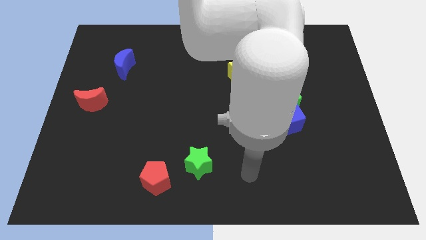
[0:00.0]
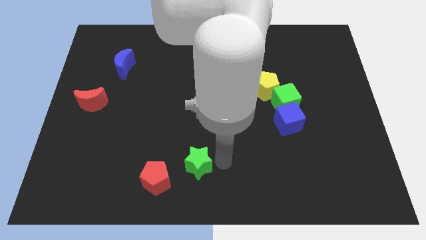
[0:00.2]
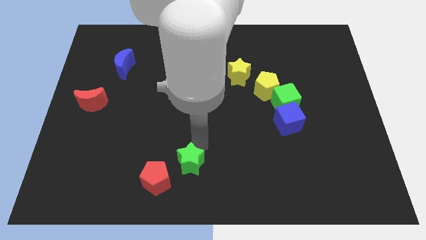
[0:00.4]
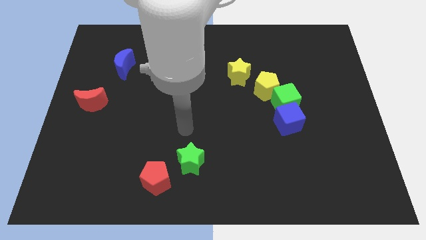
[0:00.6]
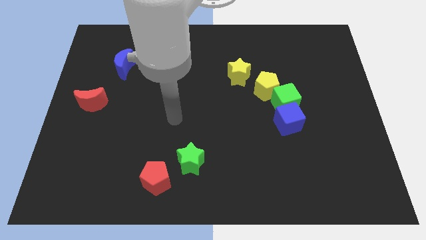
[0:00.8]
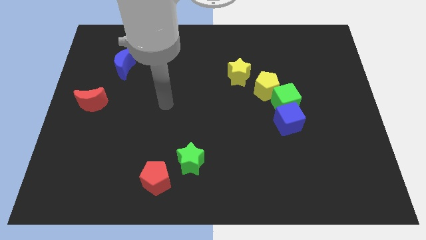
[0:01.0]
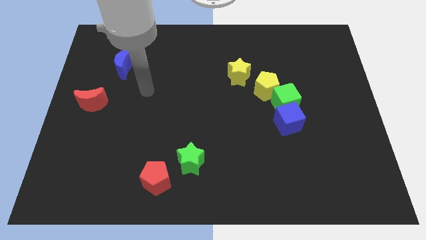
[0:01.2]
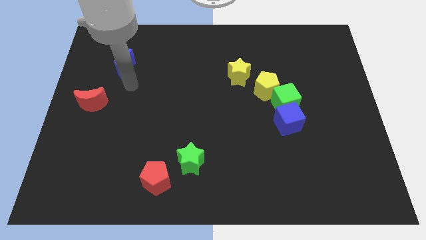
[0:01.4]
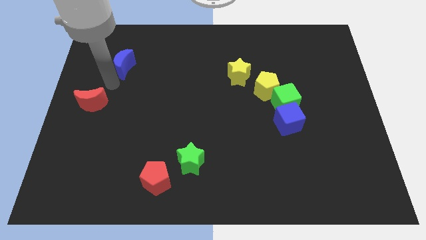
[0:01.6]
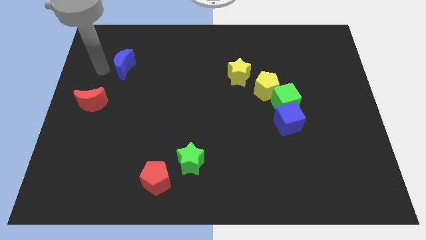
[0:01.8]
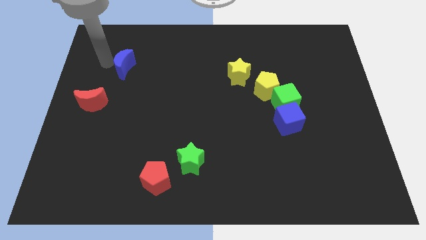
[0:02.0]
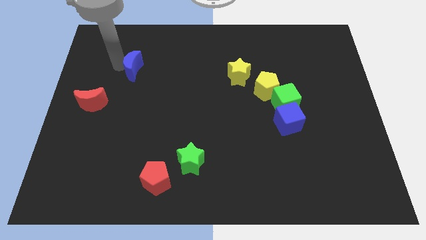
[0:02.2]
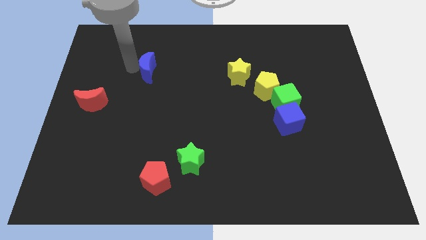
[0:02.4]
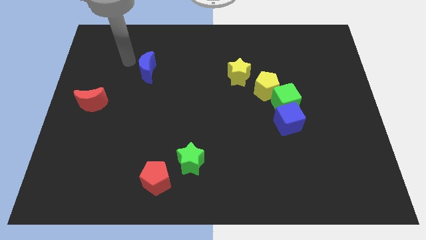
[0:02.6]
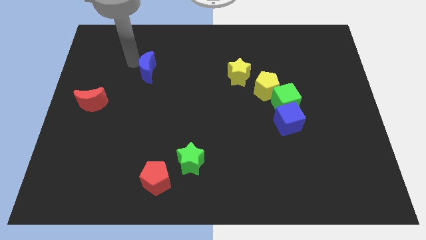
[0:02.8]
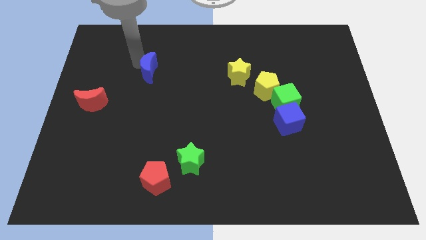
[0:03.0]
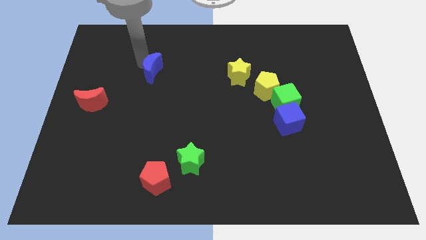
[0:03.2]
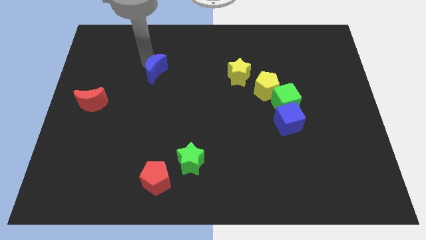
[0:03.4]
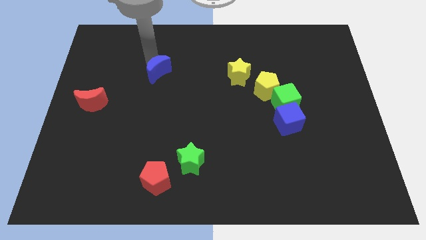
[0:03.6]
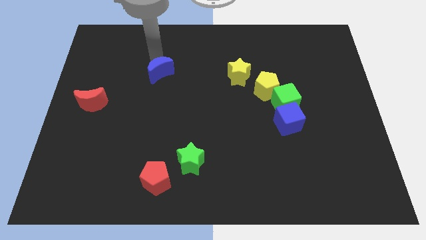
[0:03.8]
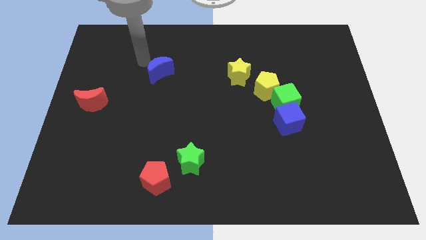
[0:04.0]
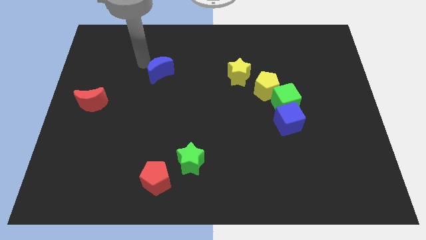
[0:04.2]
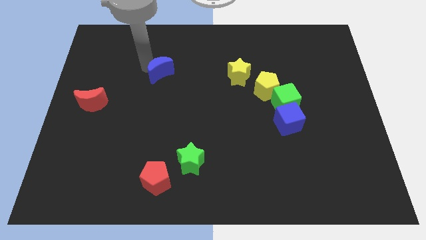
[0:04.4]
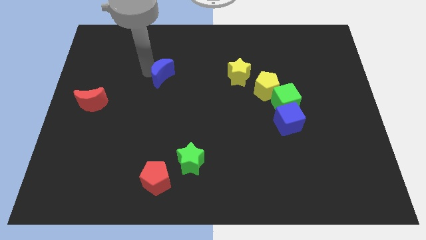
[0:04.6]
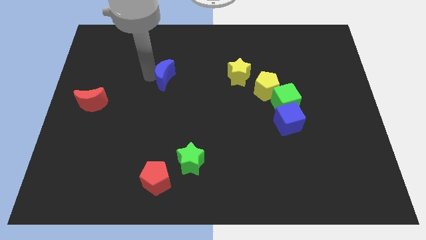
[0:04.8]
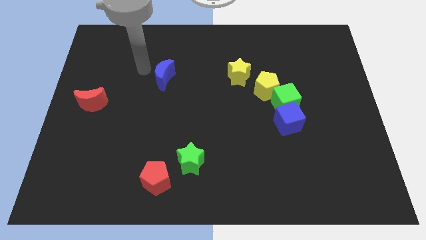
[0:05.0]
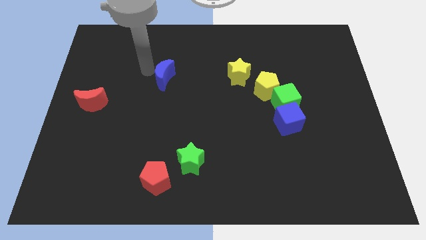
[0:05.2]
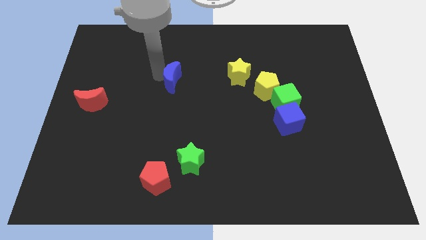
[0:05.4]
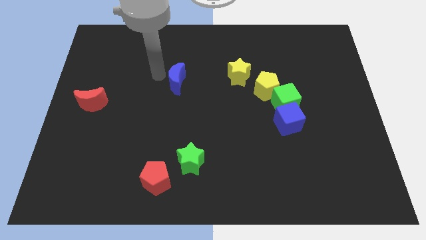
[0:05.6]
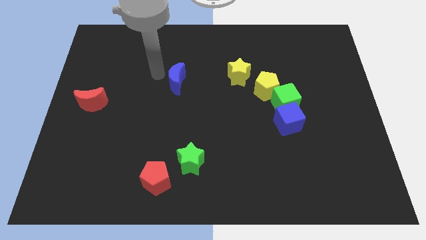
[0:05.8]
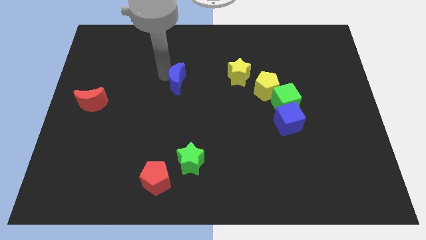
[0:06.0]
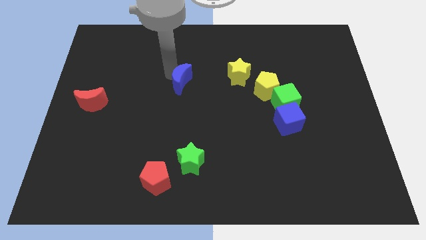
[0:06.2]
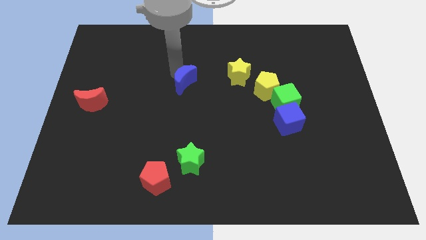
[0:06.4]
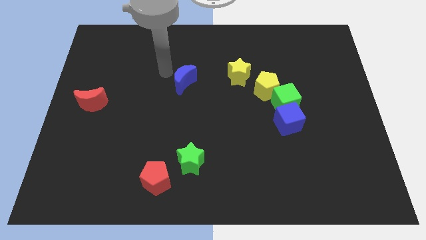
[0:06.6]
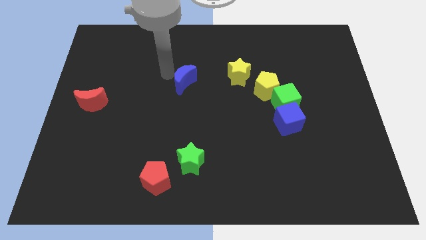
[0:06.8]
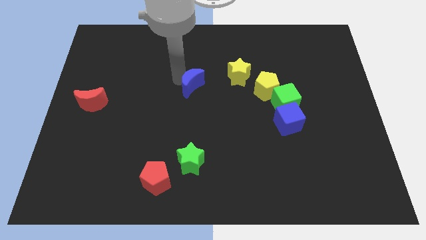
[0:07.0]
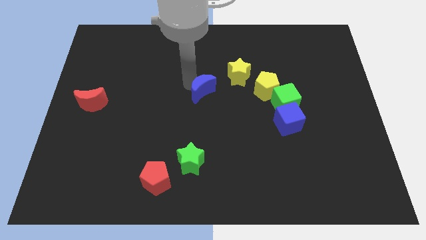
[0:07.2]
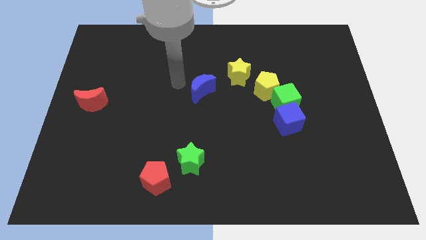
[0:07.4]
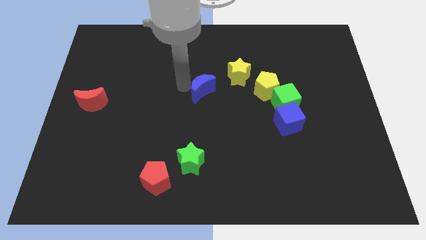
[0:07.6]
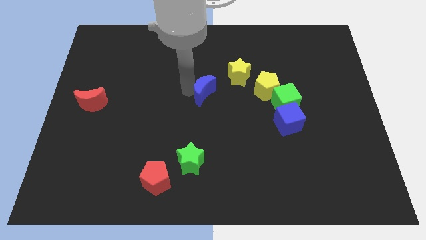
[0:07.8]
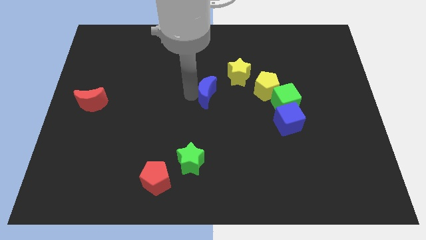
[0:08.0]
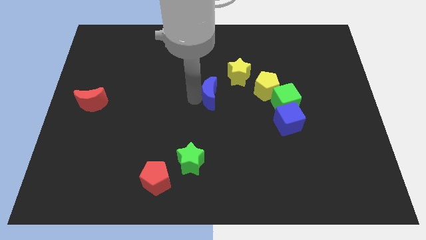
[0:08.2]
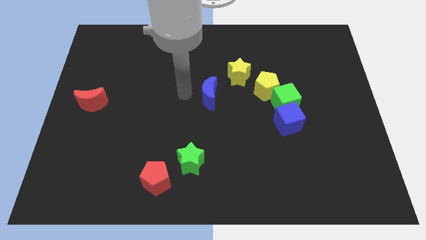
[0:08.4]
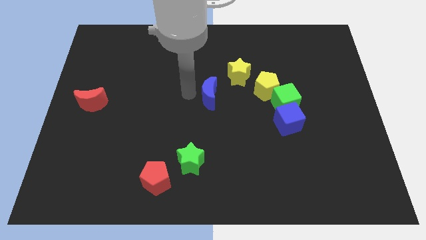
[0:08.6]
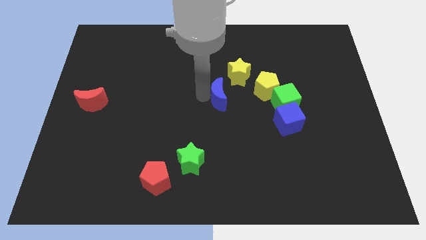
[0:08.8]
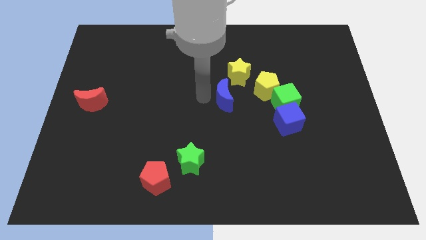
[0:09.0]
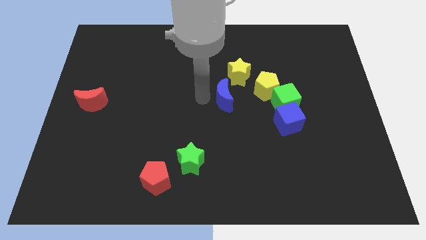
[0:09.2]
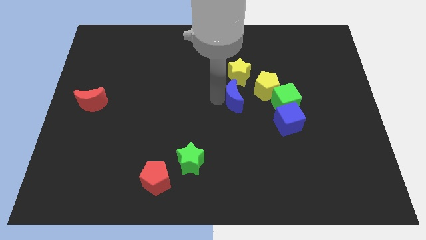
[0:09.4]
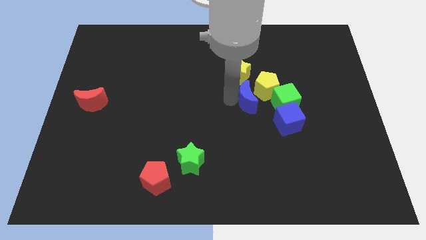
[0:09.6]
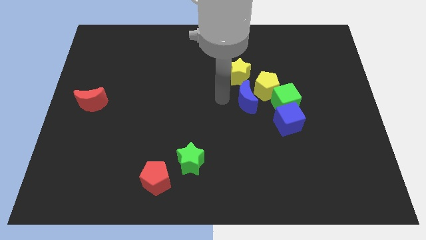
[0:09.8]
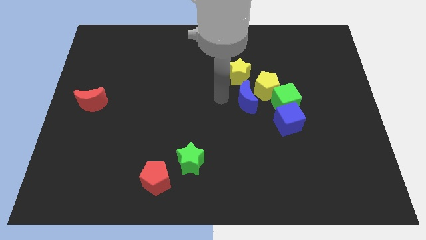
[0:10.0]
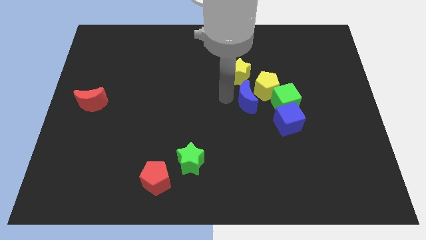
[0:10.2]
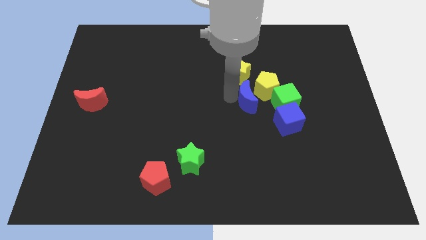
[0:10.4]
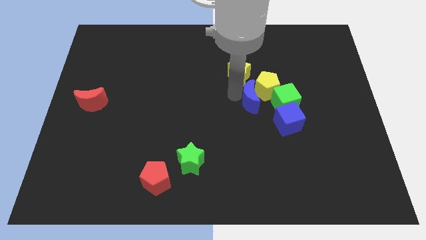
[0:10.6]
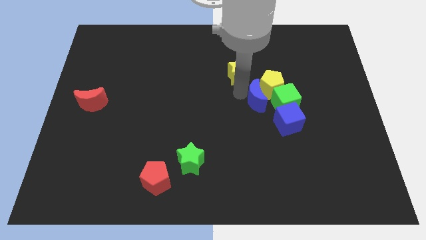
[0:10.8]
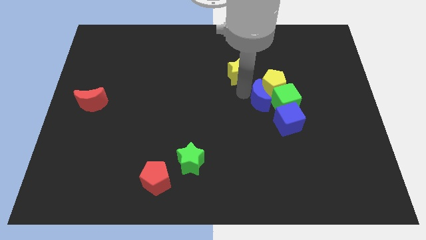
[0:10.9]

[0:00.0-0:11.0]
push the blue moon to the green cube

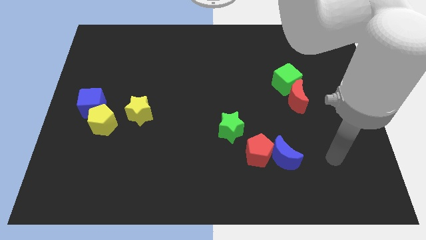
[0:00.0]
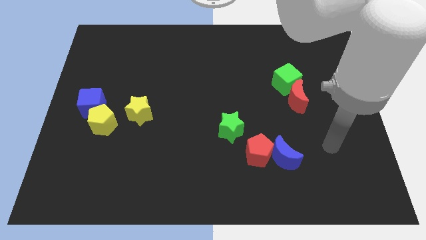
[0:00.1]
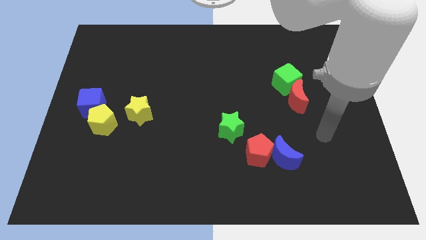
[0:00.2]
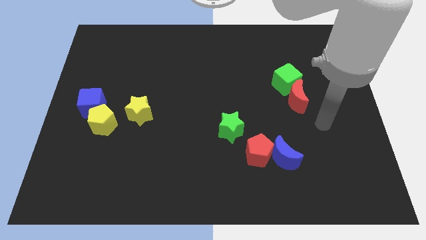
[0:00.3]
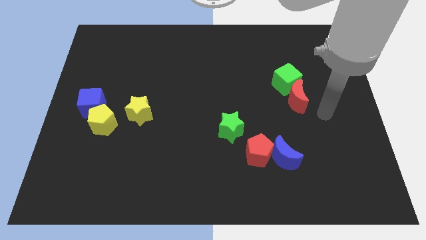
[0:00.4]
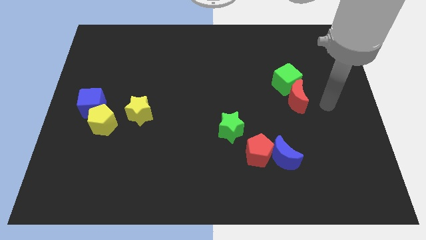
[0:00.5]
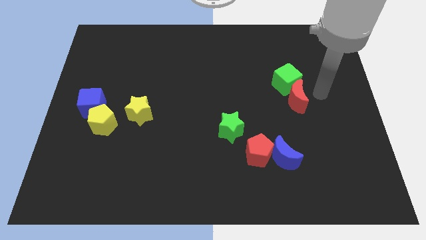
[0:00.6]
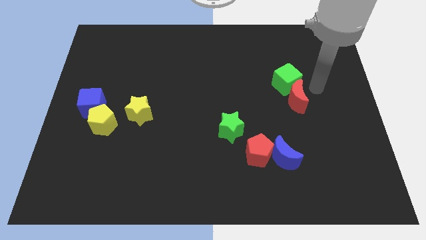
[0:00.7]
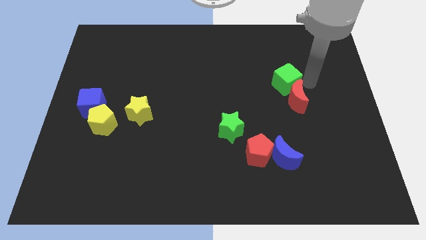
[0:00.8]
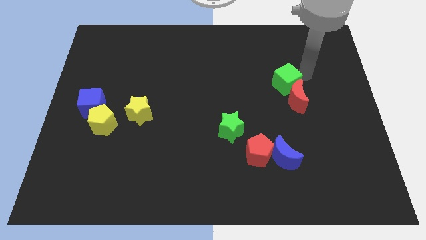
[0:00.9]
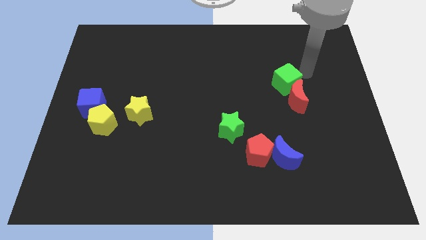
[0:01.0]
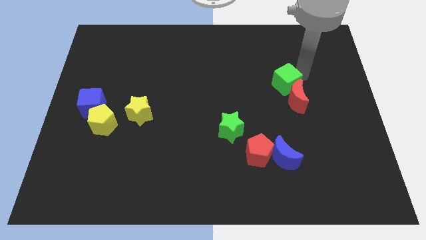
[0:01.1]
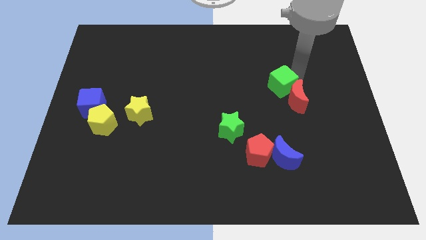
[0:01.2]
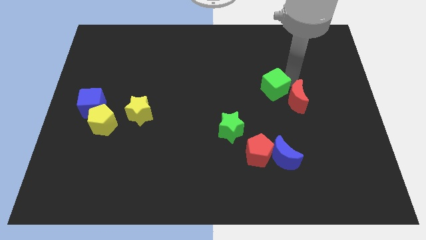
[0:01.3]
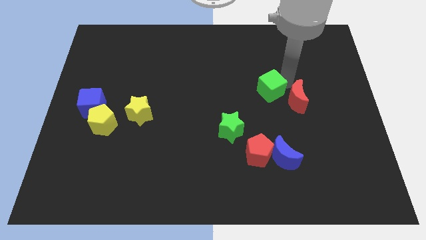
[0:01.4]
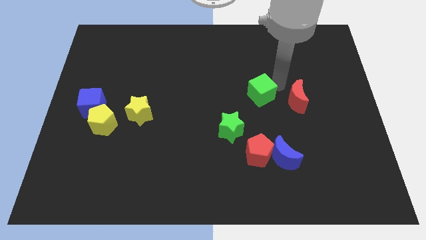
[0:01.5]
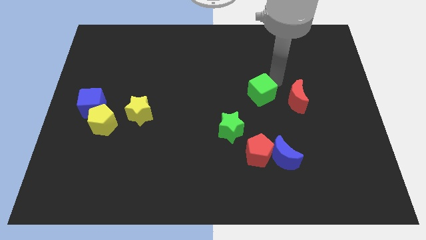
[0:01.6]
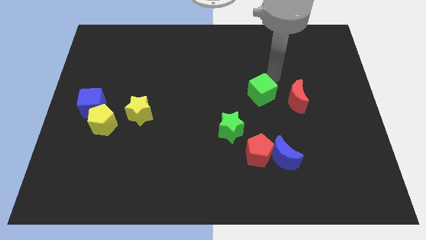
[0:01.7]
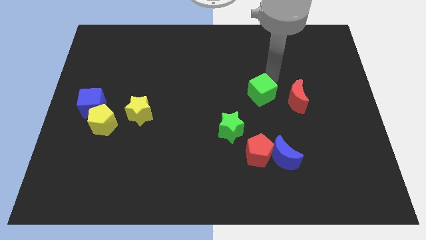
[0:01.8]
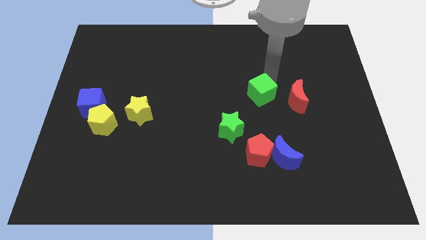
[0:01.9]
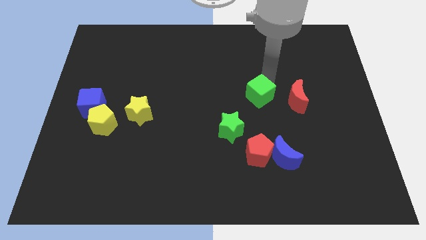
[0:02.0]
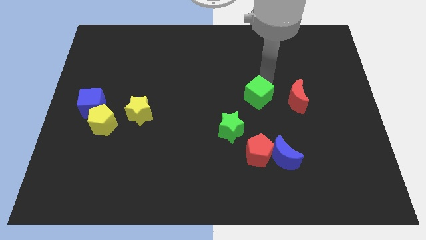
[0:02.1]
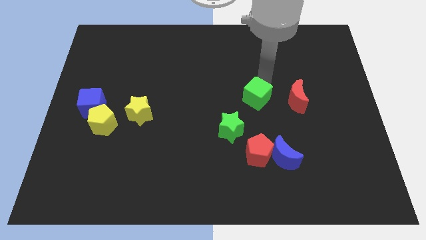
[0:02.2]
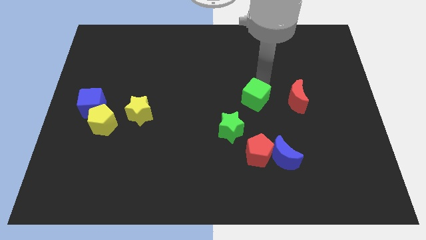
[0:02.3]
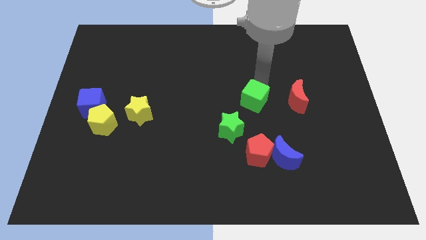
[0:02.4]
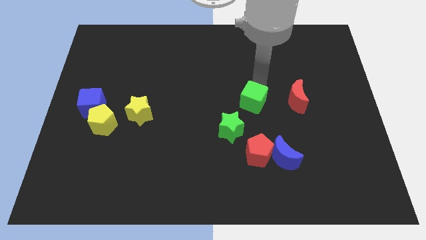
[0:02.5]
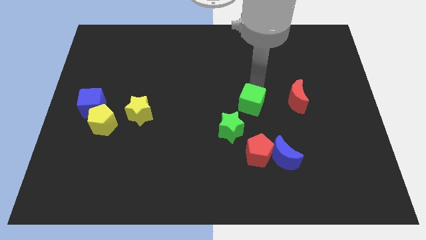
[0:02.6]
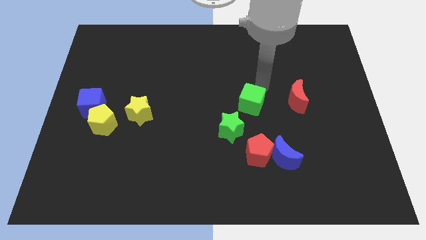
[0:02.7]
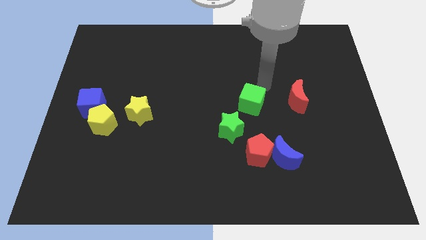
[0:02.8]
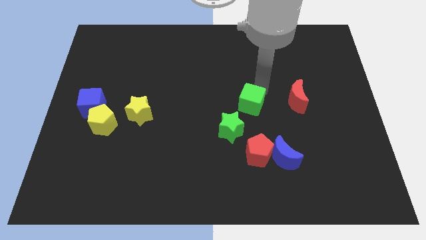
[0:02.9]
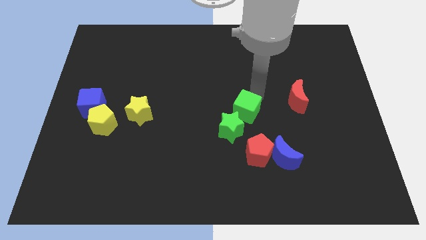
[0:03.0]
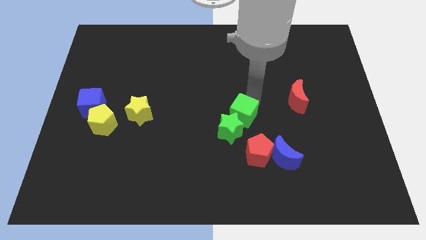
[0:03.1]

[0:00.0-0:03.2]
push the green cube towards the green star
